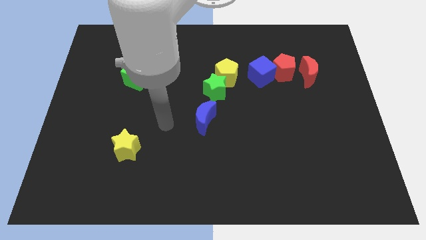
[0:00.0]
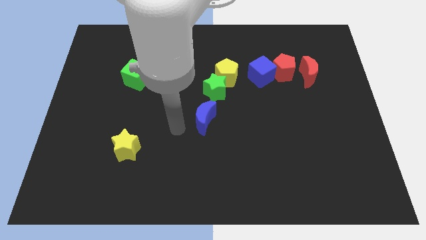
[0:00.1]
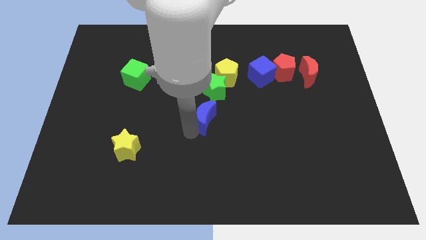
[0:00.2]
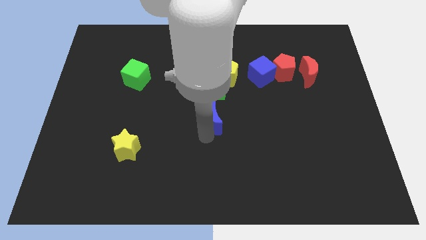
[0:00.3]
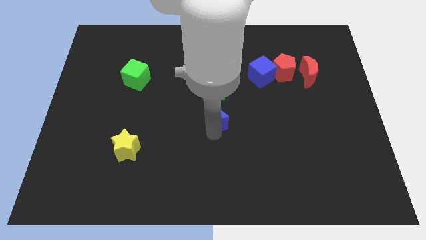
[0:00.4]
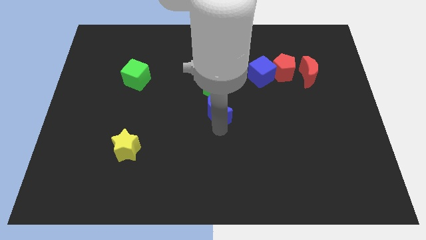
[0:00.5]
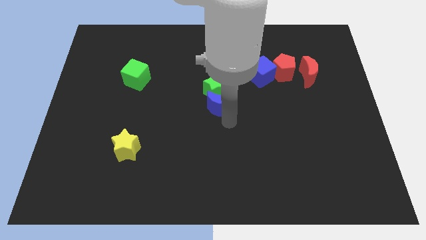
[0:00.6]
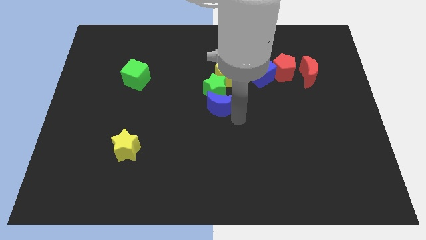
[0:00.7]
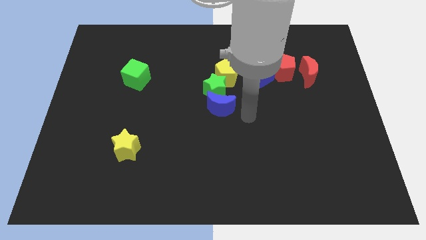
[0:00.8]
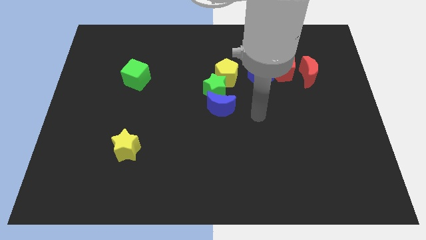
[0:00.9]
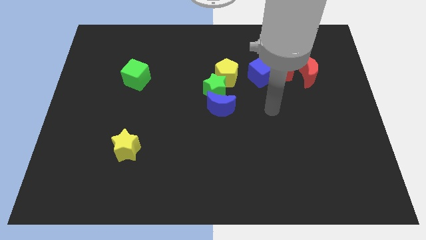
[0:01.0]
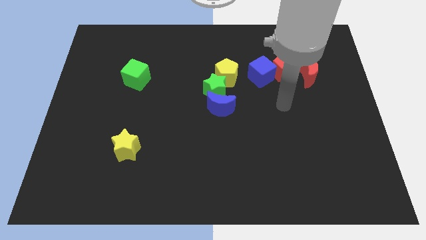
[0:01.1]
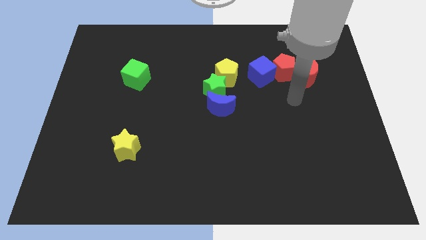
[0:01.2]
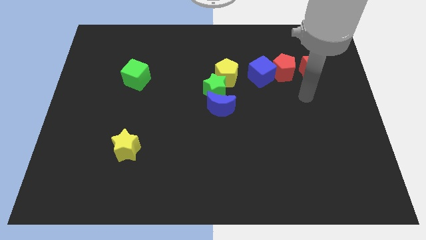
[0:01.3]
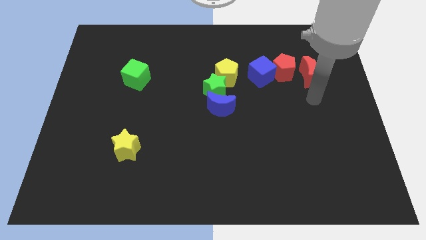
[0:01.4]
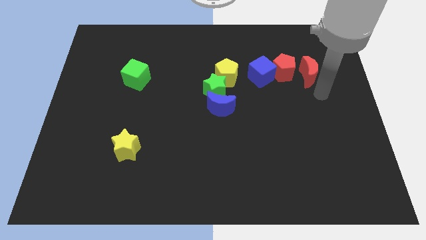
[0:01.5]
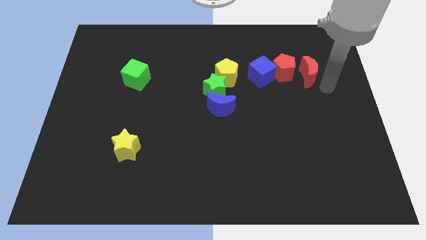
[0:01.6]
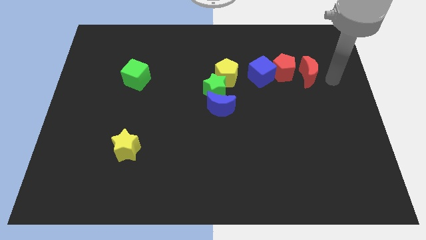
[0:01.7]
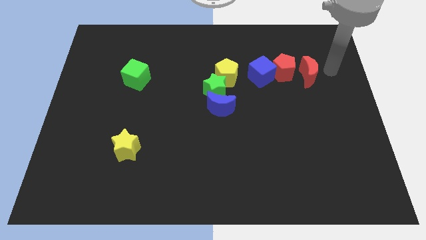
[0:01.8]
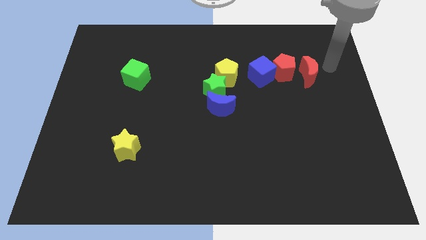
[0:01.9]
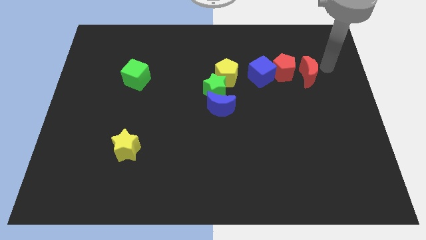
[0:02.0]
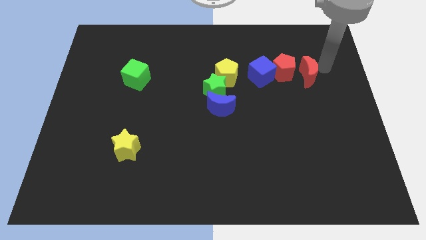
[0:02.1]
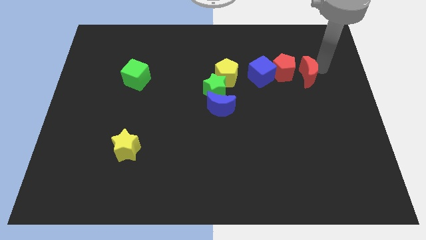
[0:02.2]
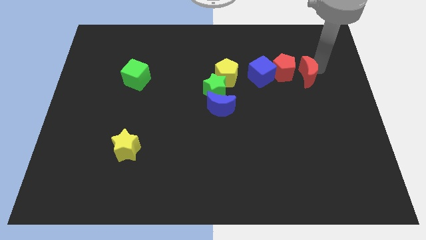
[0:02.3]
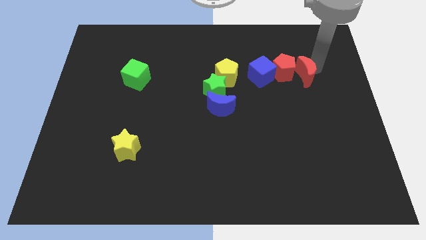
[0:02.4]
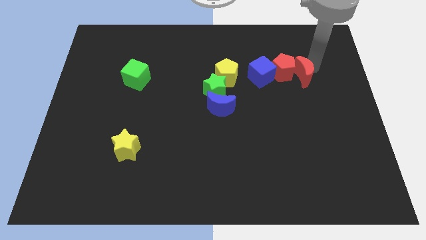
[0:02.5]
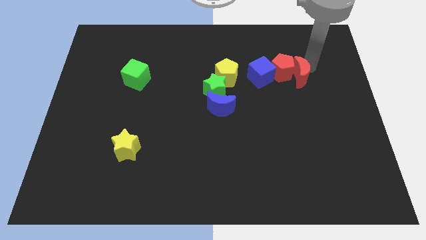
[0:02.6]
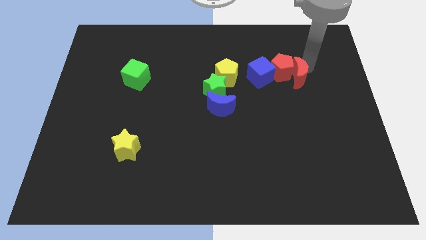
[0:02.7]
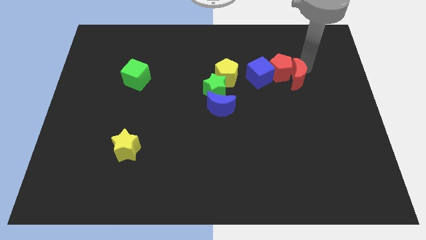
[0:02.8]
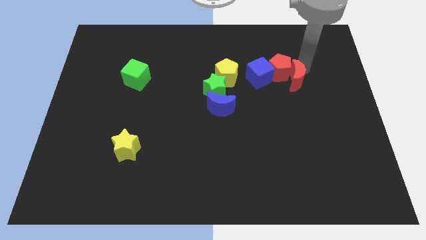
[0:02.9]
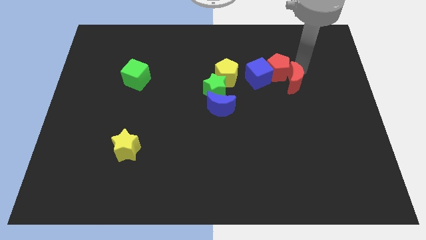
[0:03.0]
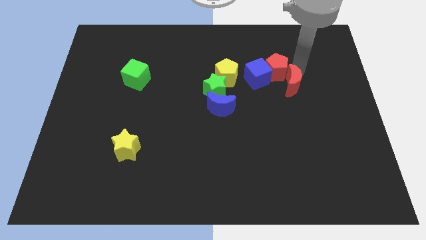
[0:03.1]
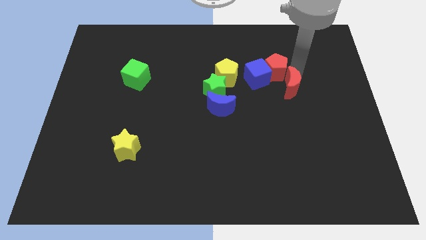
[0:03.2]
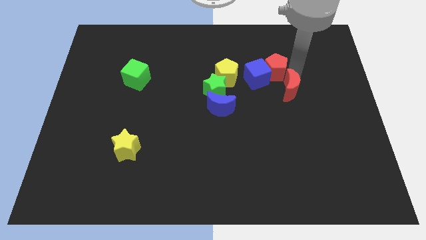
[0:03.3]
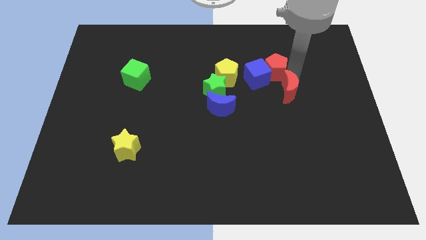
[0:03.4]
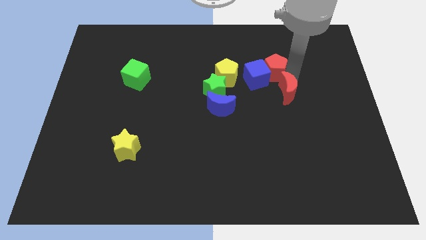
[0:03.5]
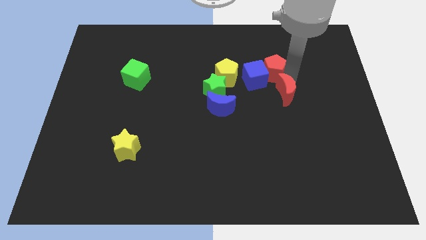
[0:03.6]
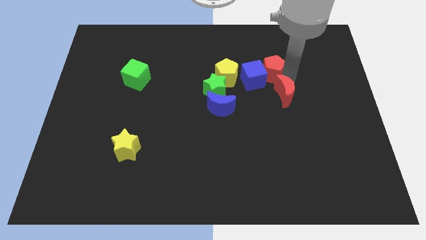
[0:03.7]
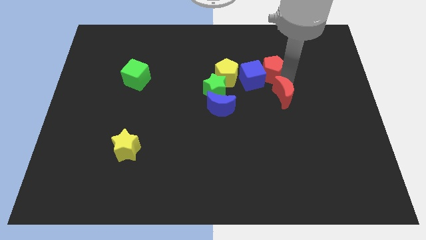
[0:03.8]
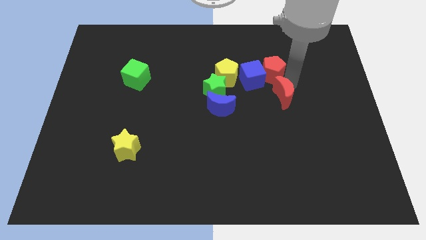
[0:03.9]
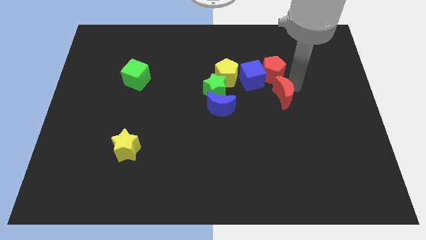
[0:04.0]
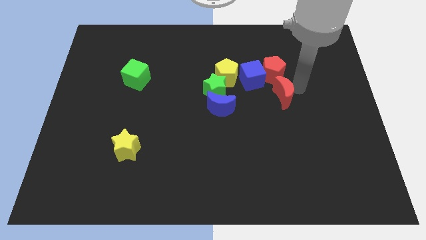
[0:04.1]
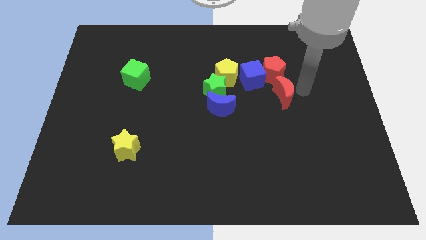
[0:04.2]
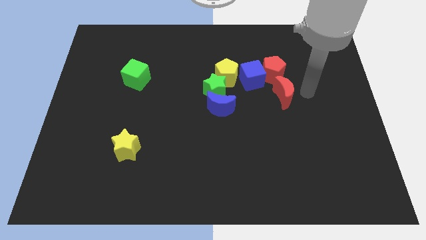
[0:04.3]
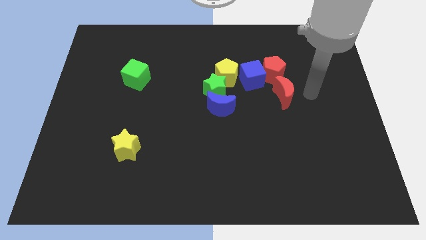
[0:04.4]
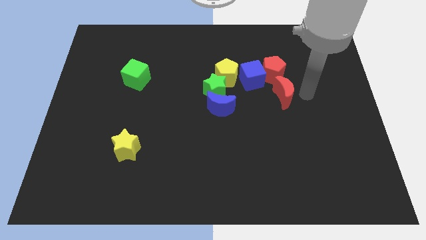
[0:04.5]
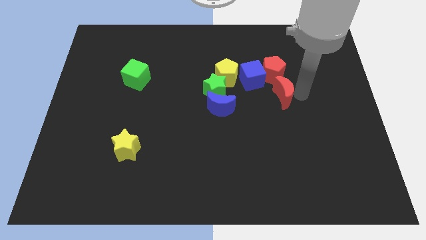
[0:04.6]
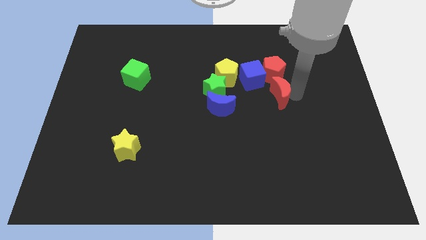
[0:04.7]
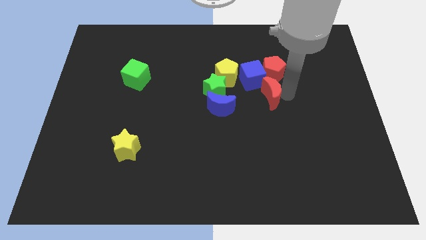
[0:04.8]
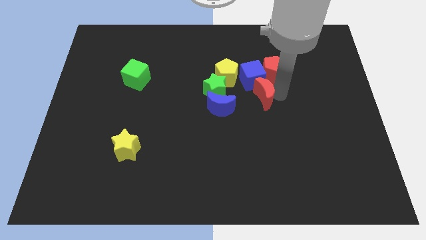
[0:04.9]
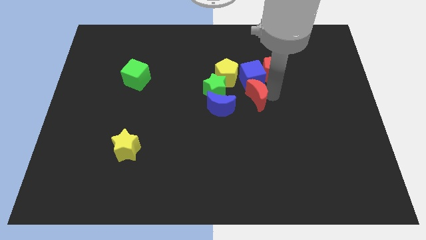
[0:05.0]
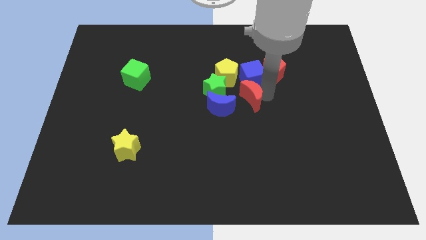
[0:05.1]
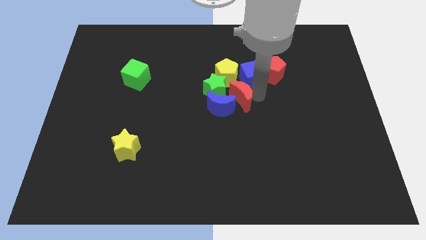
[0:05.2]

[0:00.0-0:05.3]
put the red moon close to the blue moon

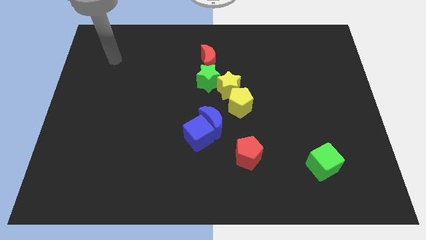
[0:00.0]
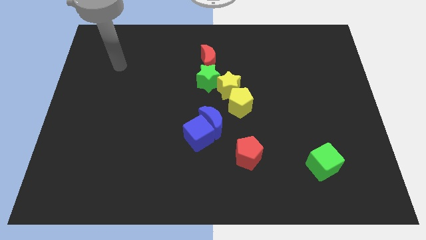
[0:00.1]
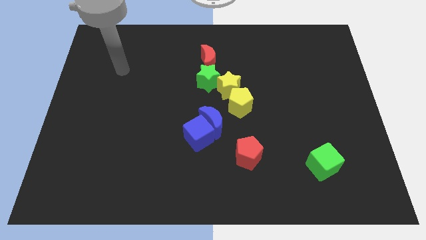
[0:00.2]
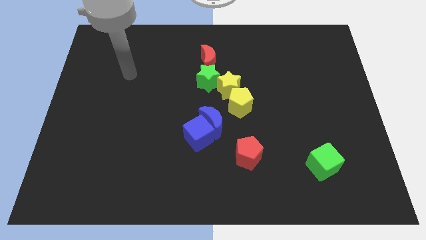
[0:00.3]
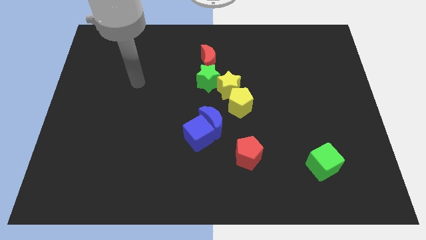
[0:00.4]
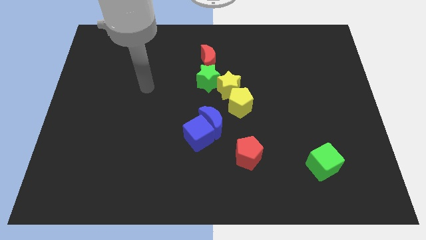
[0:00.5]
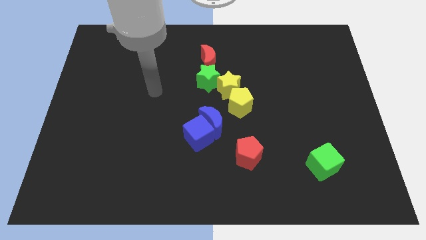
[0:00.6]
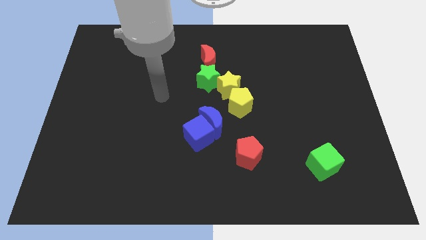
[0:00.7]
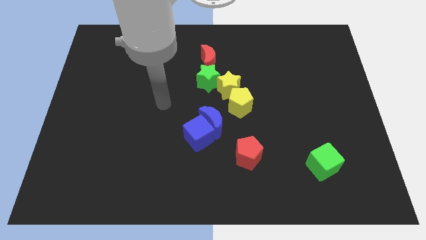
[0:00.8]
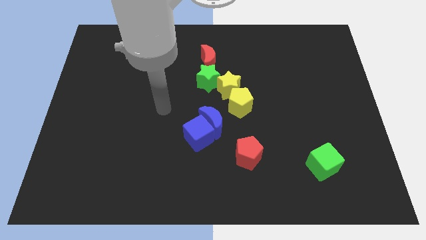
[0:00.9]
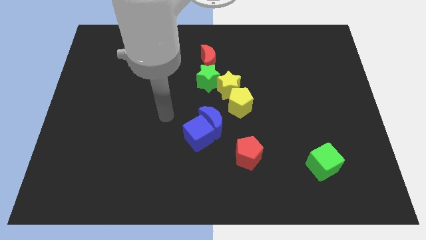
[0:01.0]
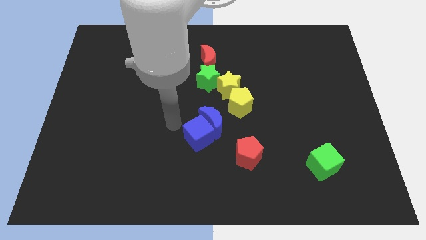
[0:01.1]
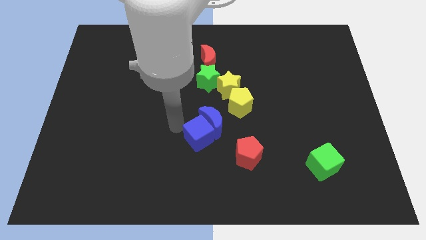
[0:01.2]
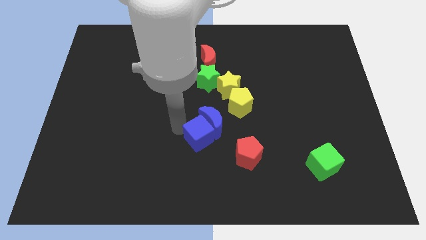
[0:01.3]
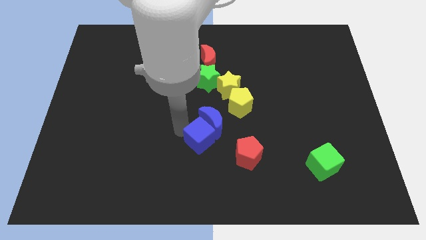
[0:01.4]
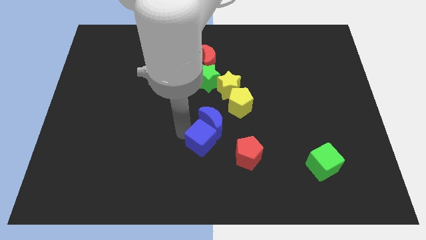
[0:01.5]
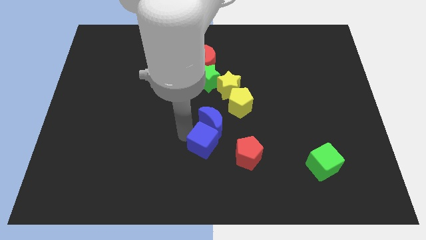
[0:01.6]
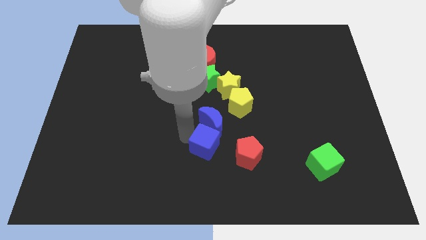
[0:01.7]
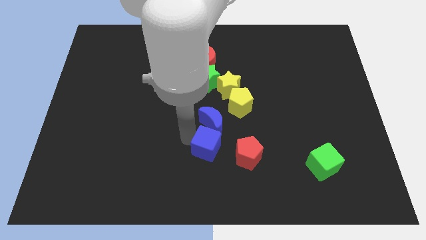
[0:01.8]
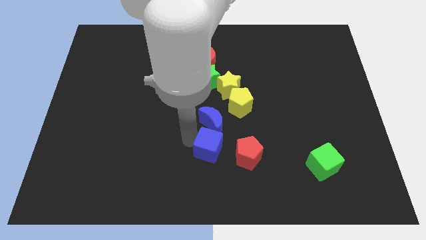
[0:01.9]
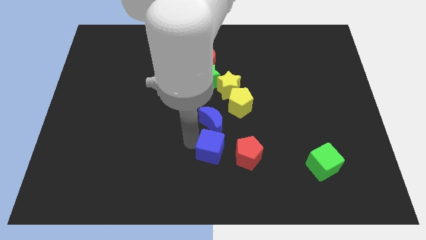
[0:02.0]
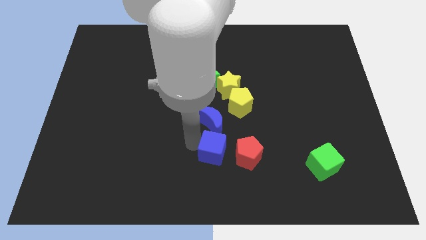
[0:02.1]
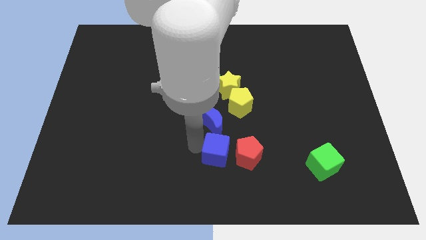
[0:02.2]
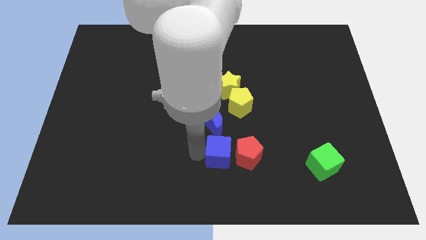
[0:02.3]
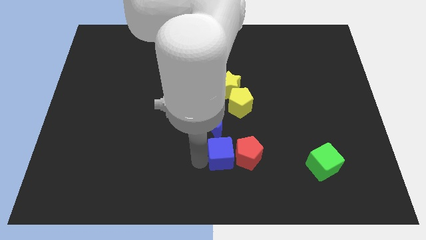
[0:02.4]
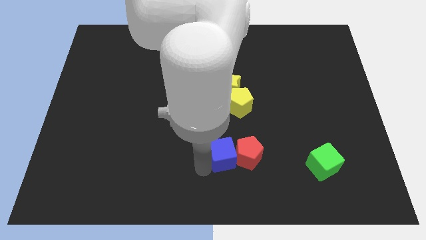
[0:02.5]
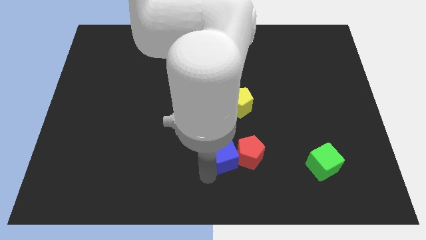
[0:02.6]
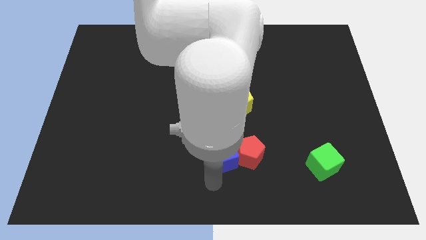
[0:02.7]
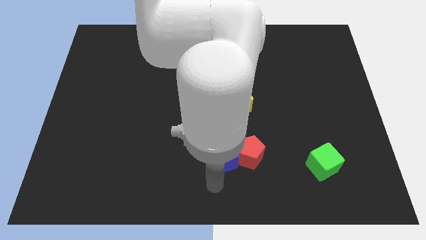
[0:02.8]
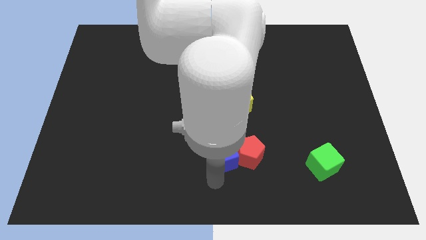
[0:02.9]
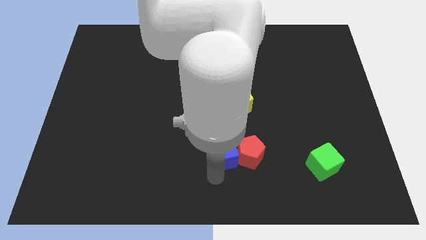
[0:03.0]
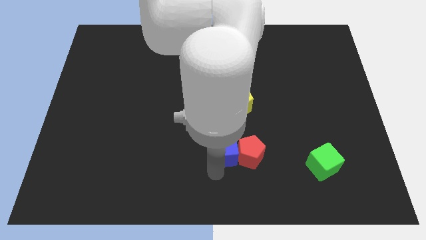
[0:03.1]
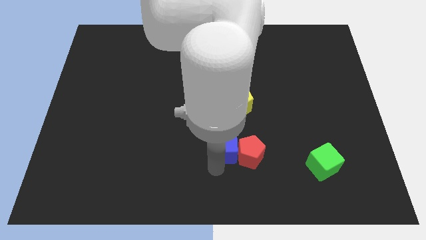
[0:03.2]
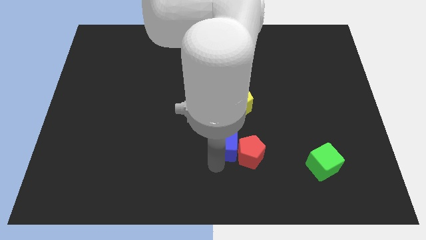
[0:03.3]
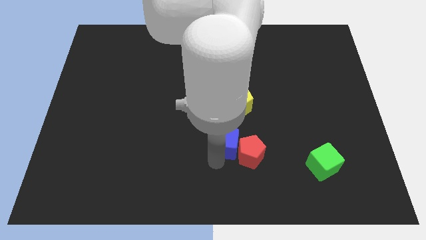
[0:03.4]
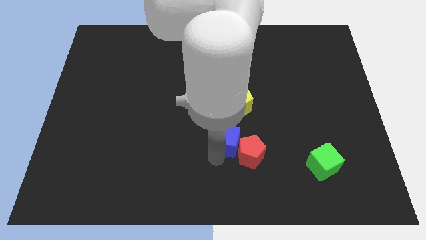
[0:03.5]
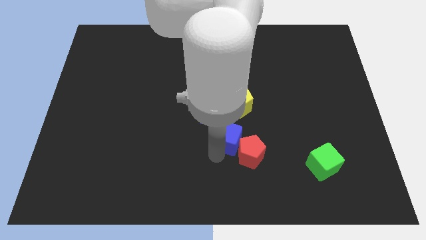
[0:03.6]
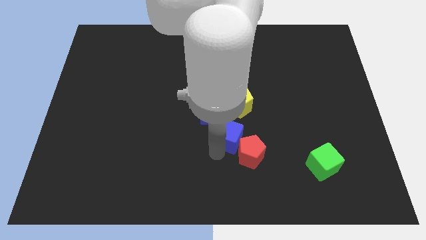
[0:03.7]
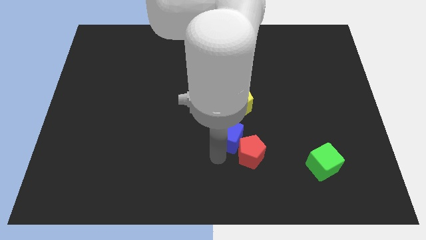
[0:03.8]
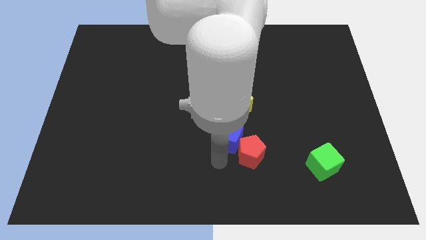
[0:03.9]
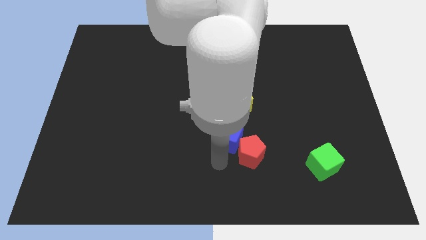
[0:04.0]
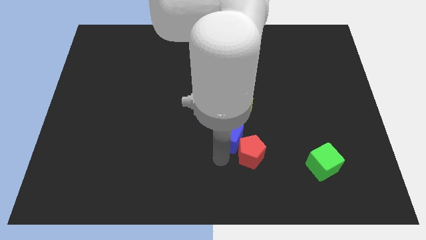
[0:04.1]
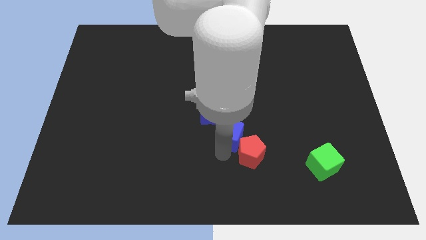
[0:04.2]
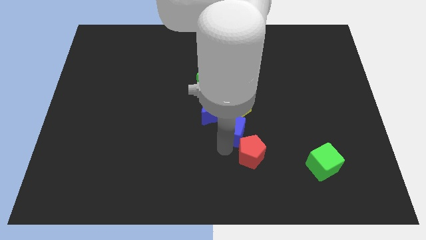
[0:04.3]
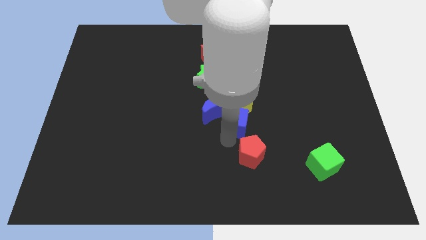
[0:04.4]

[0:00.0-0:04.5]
move the blue cube close to the yellow pentagon
